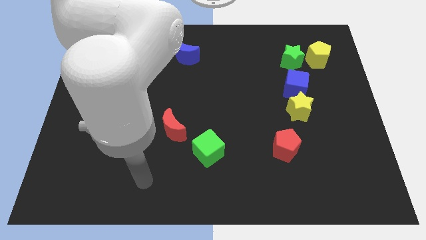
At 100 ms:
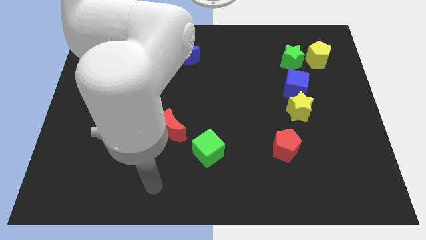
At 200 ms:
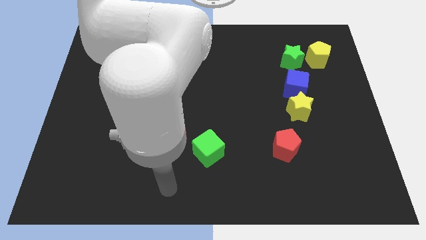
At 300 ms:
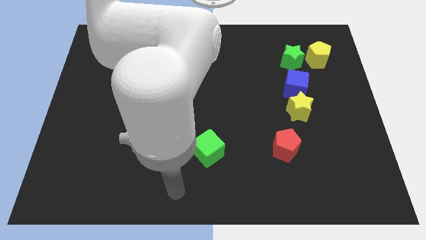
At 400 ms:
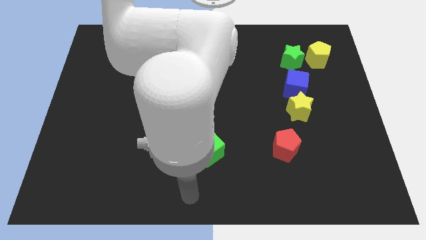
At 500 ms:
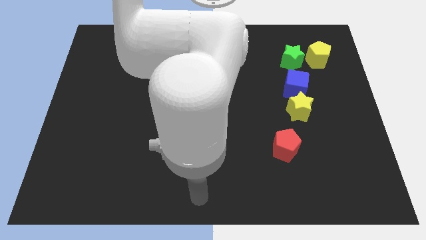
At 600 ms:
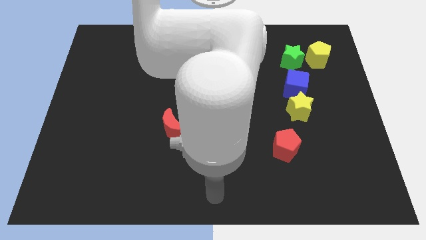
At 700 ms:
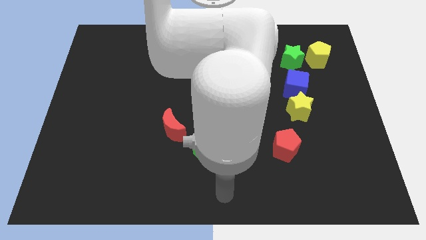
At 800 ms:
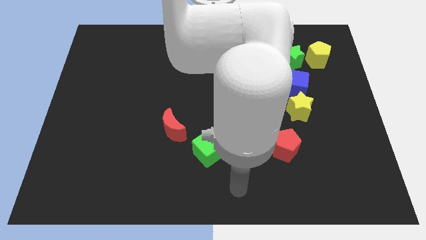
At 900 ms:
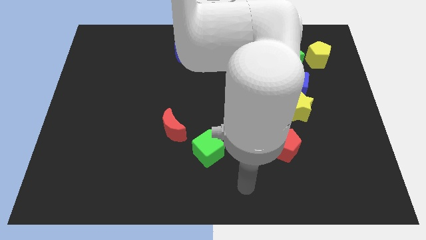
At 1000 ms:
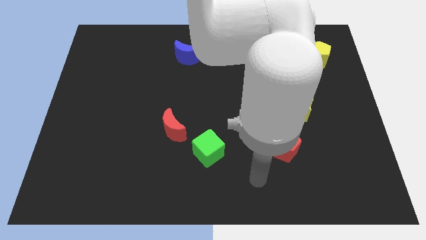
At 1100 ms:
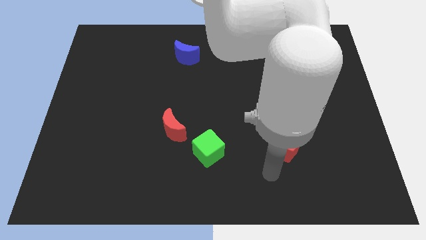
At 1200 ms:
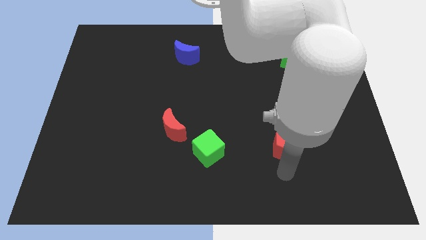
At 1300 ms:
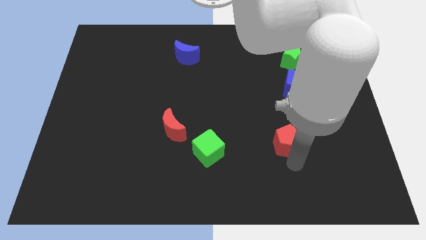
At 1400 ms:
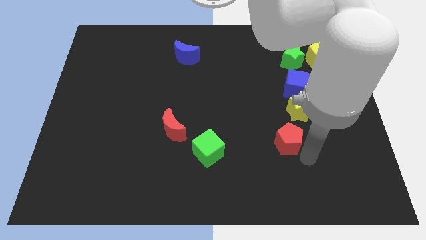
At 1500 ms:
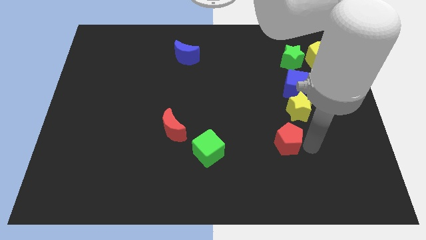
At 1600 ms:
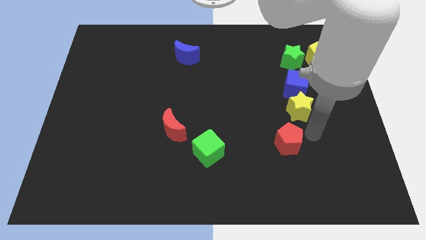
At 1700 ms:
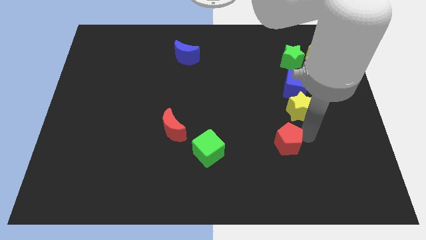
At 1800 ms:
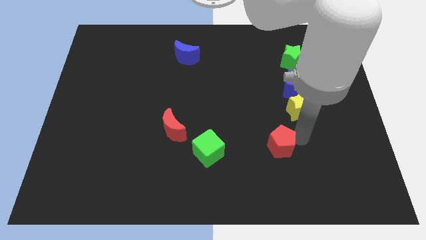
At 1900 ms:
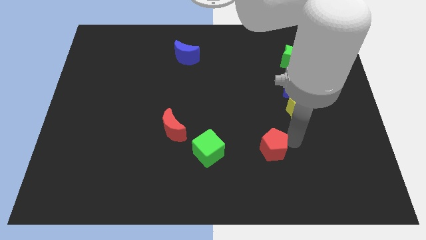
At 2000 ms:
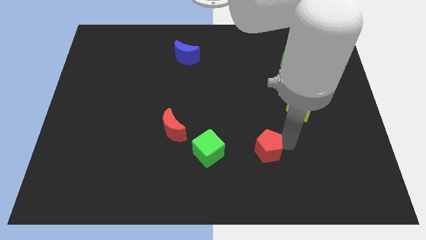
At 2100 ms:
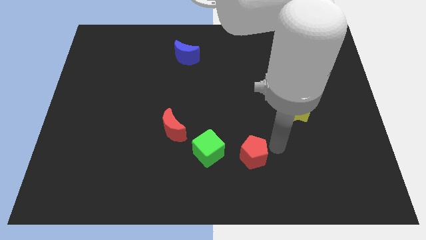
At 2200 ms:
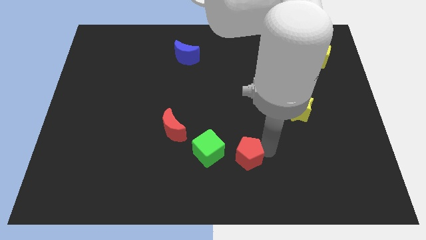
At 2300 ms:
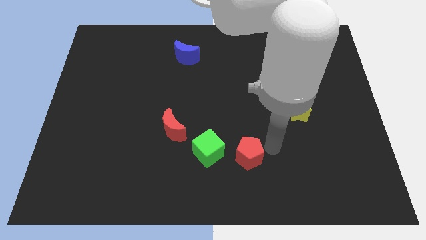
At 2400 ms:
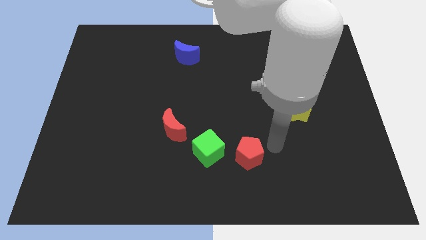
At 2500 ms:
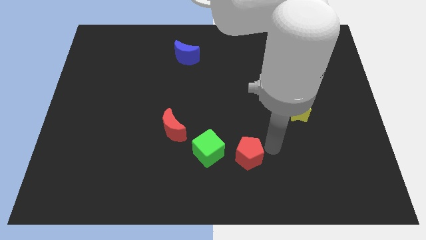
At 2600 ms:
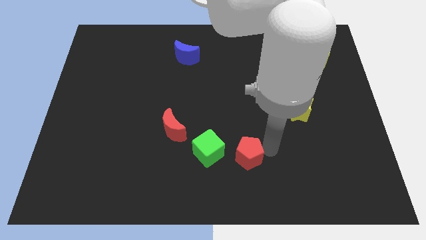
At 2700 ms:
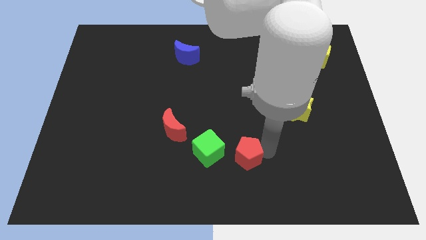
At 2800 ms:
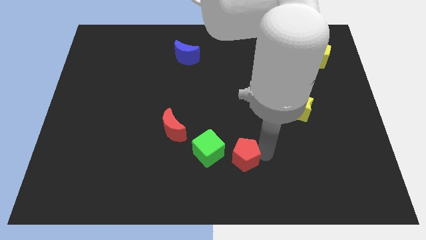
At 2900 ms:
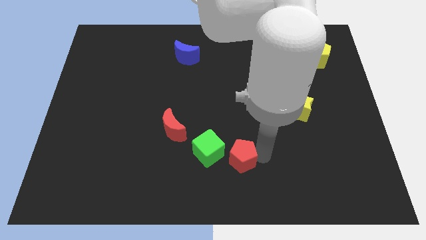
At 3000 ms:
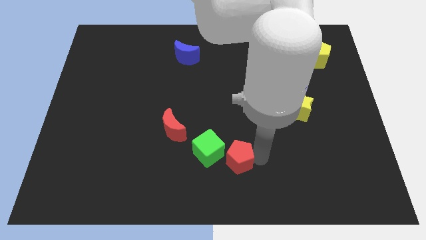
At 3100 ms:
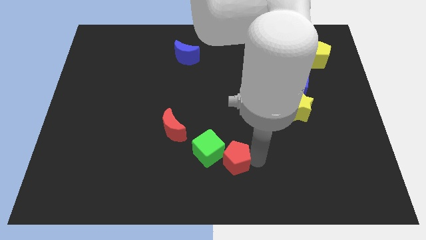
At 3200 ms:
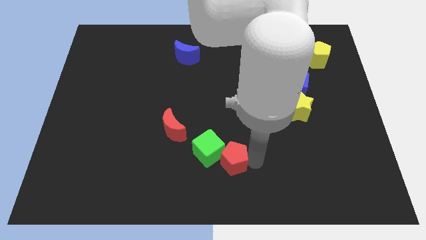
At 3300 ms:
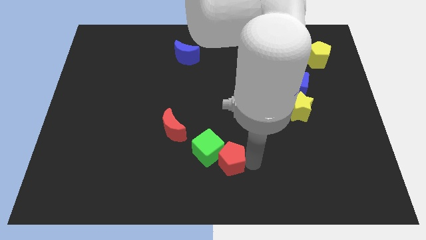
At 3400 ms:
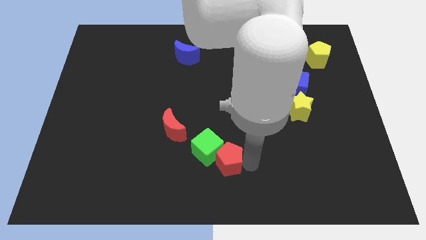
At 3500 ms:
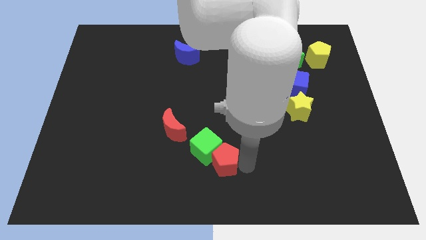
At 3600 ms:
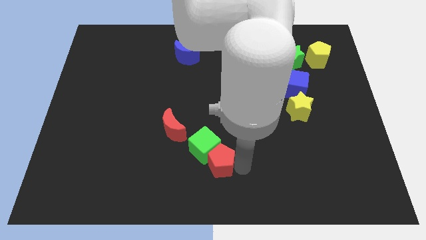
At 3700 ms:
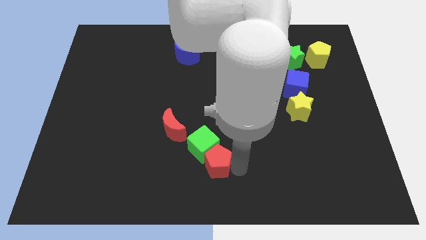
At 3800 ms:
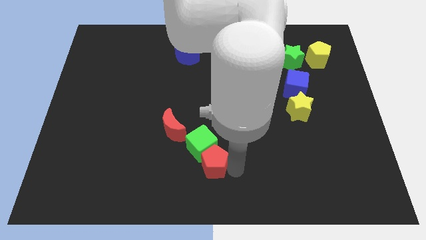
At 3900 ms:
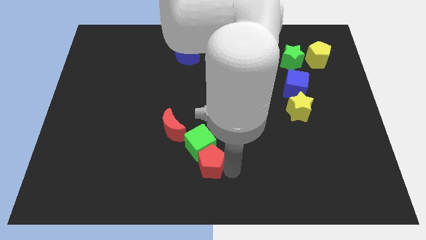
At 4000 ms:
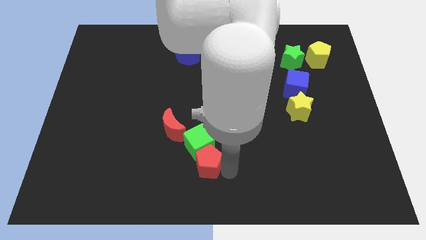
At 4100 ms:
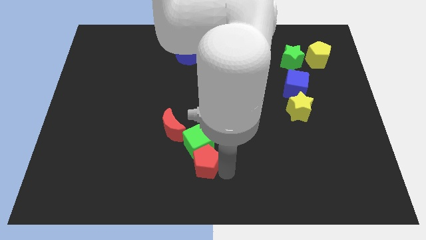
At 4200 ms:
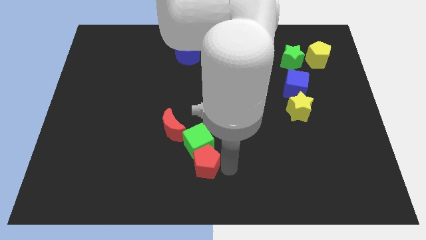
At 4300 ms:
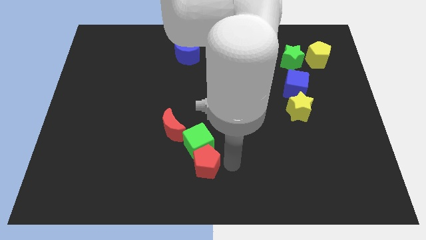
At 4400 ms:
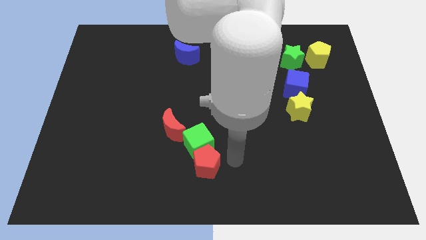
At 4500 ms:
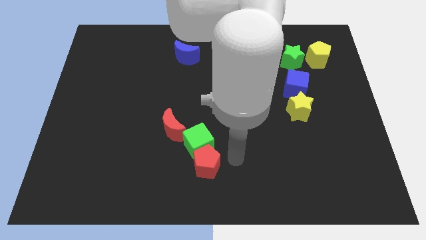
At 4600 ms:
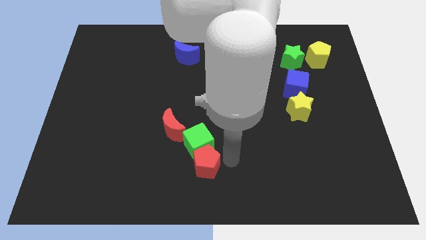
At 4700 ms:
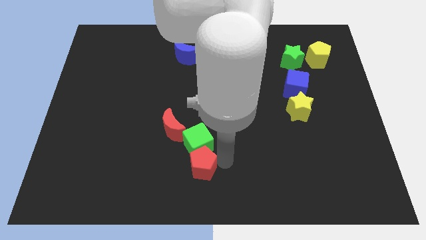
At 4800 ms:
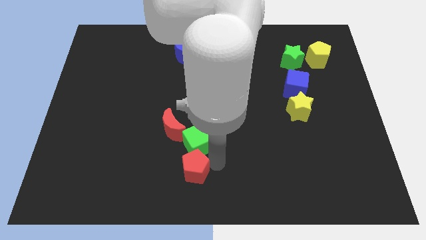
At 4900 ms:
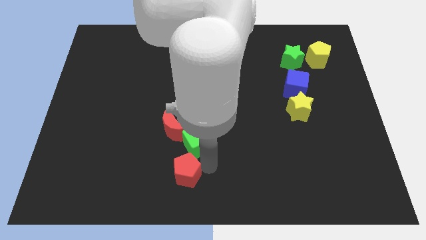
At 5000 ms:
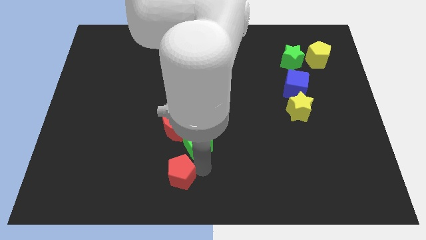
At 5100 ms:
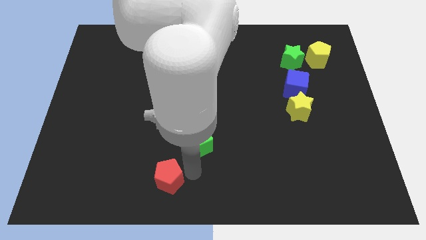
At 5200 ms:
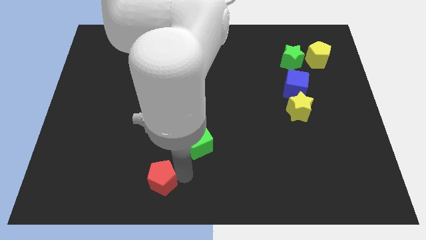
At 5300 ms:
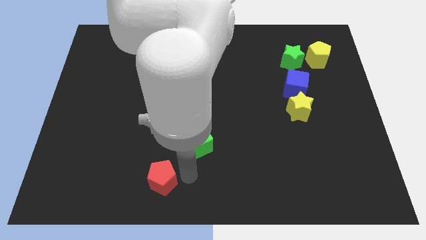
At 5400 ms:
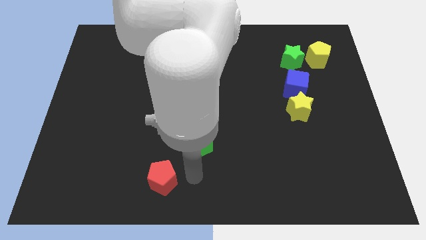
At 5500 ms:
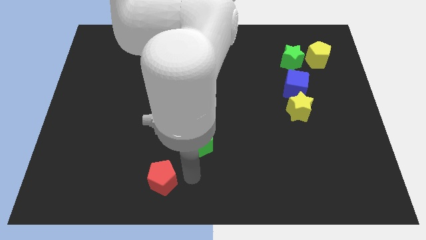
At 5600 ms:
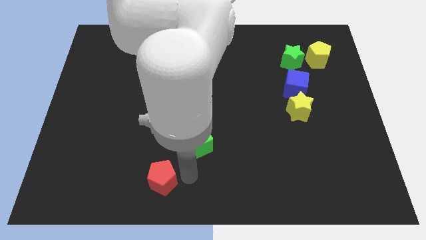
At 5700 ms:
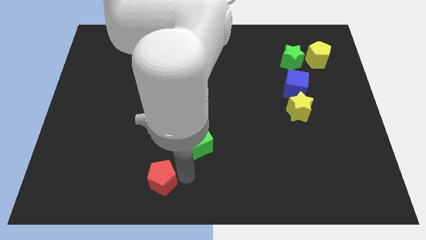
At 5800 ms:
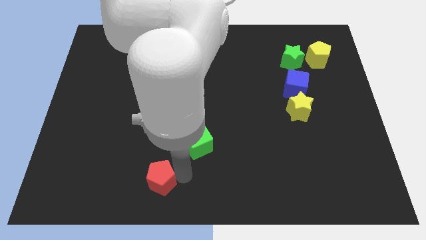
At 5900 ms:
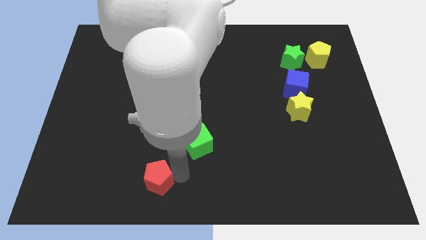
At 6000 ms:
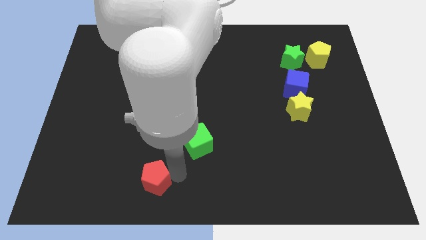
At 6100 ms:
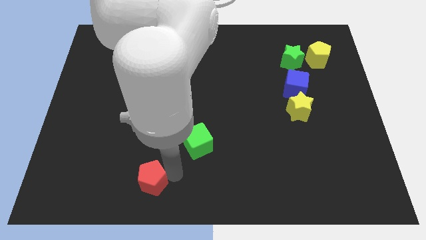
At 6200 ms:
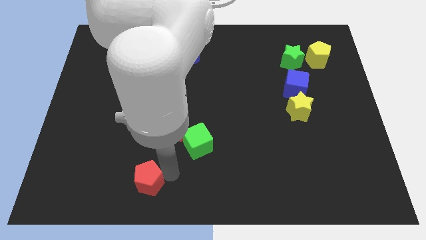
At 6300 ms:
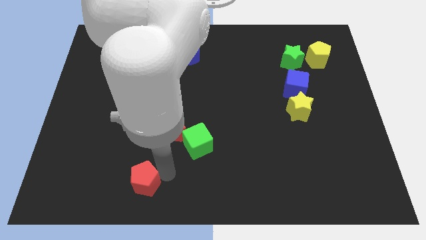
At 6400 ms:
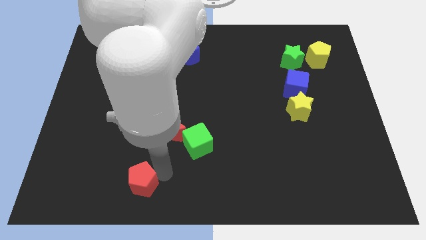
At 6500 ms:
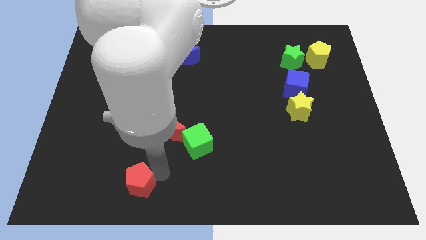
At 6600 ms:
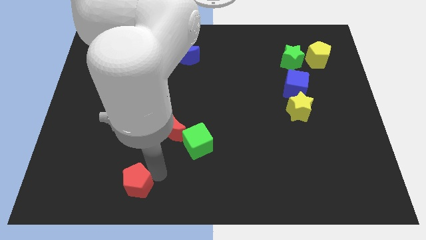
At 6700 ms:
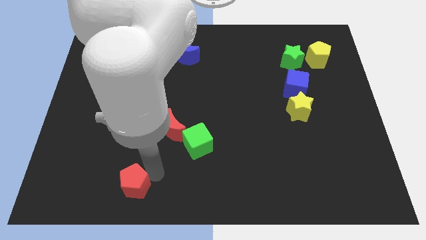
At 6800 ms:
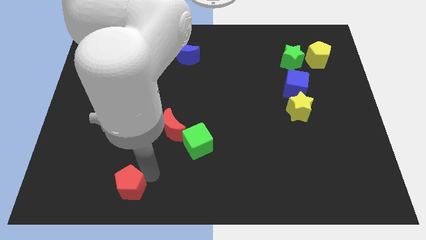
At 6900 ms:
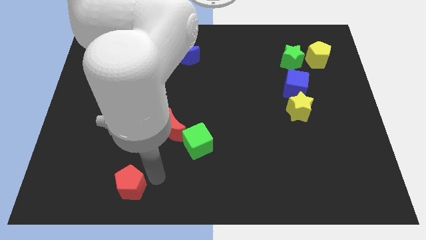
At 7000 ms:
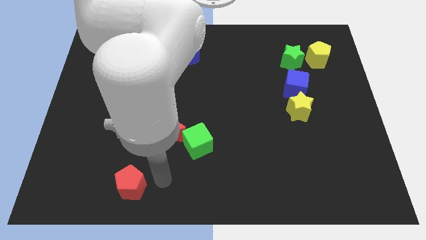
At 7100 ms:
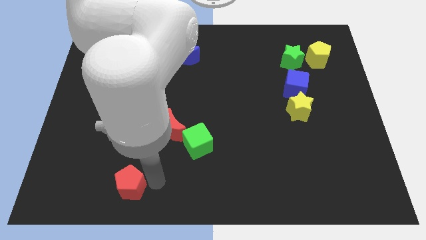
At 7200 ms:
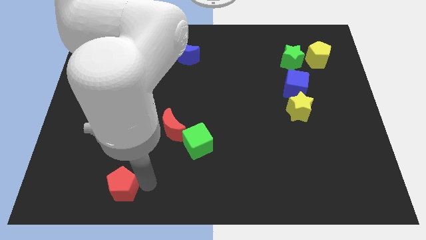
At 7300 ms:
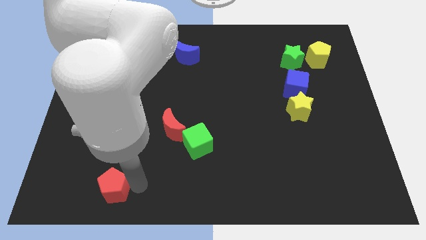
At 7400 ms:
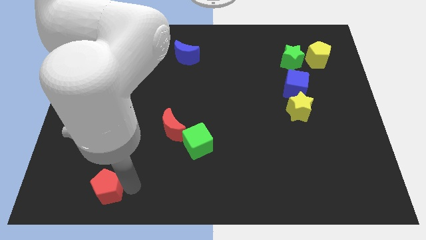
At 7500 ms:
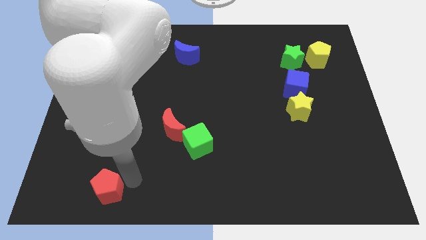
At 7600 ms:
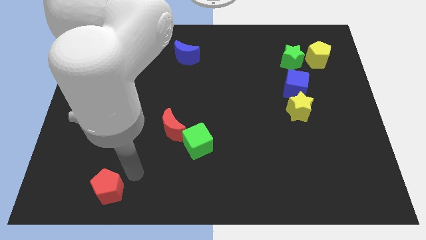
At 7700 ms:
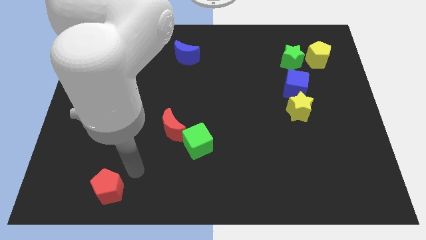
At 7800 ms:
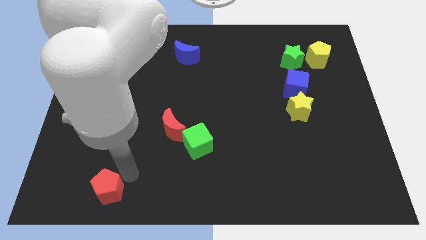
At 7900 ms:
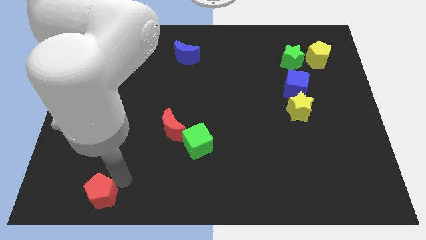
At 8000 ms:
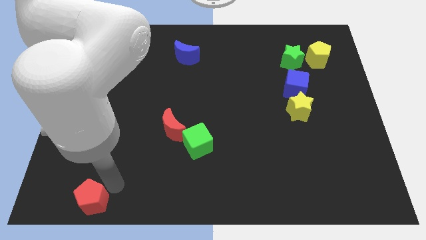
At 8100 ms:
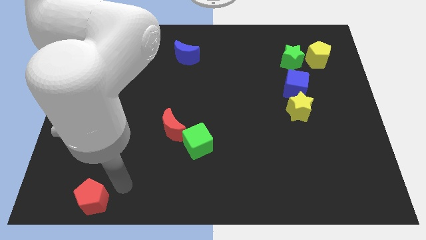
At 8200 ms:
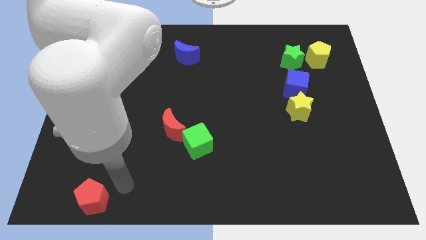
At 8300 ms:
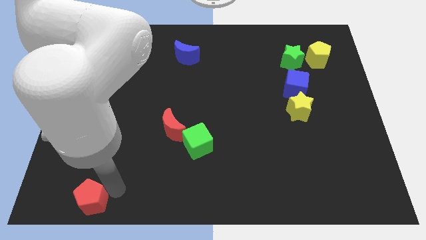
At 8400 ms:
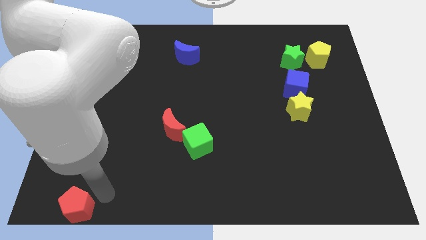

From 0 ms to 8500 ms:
push the red pentagon to the bottom left corner
